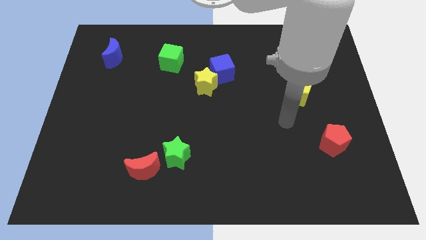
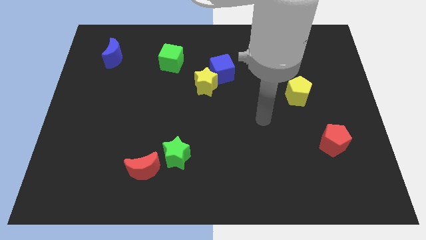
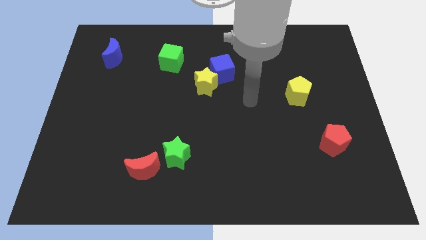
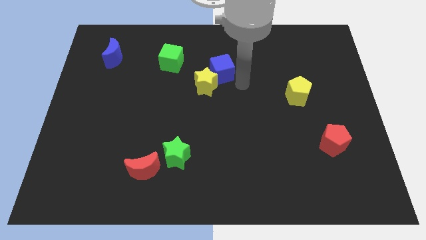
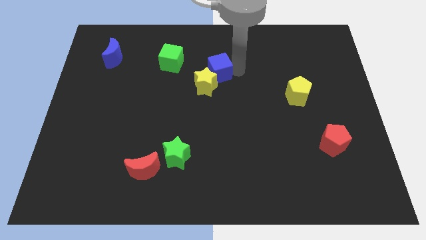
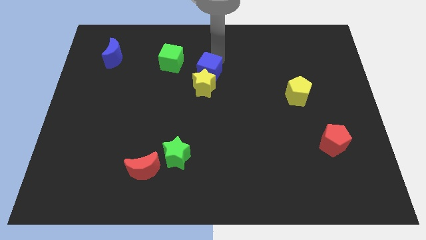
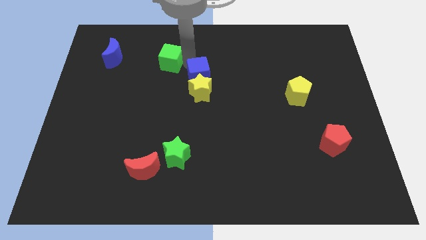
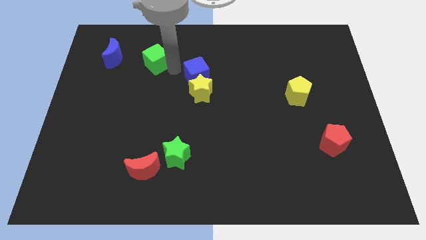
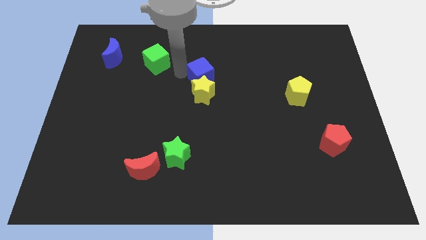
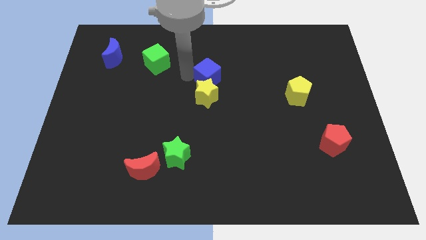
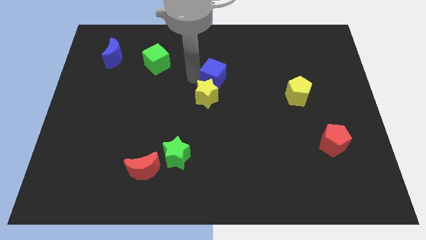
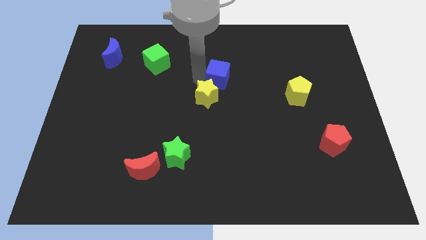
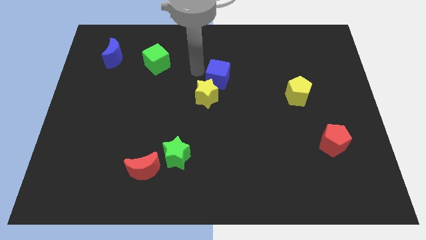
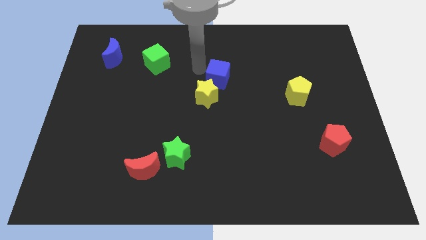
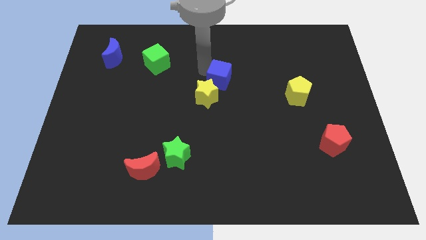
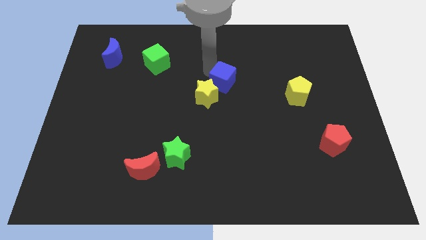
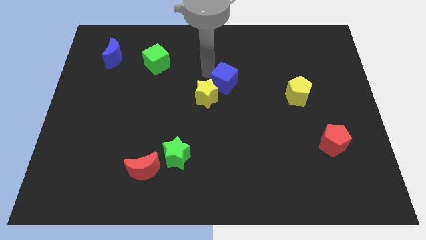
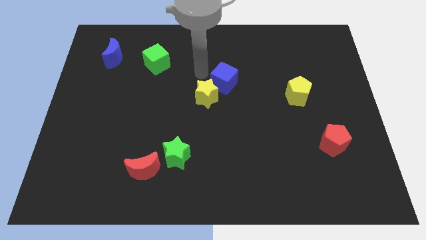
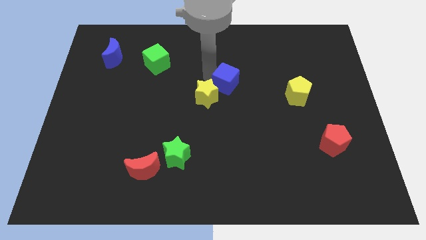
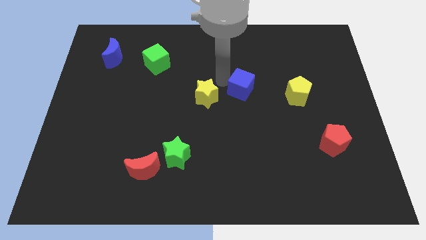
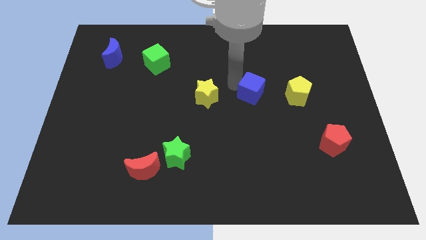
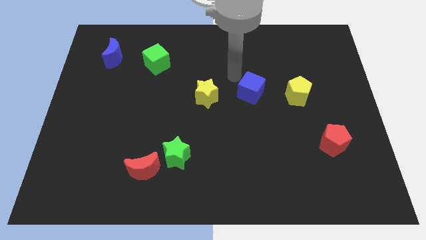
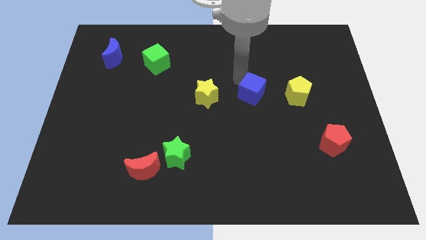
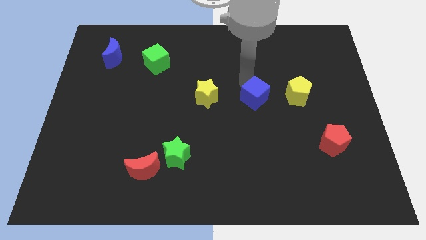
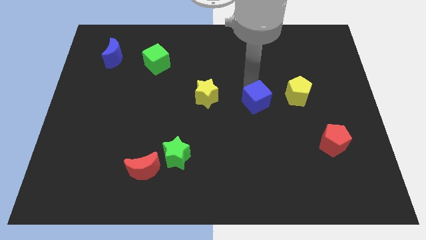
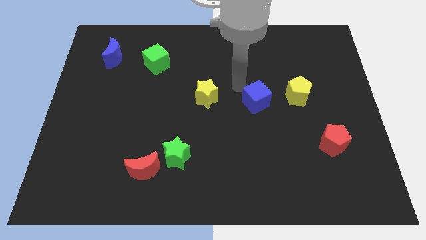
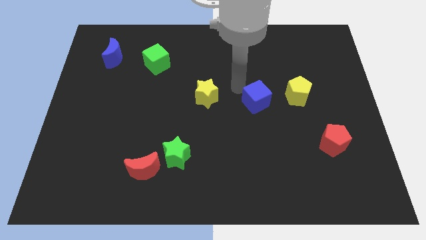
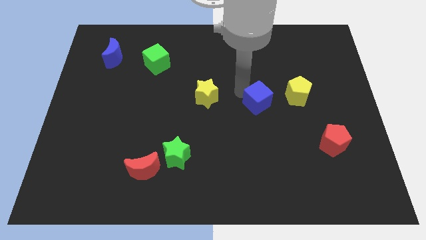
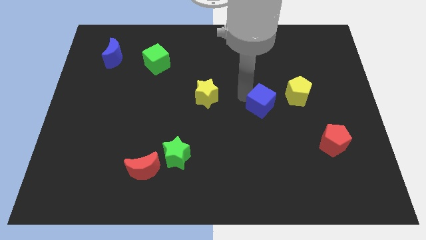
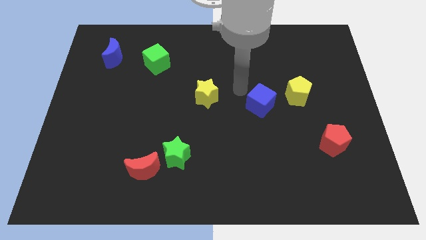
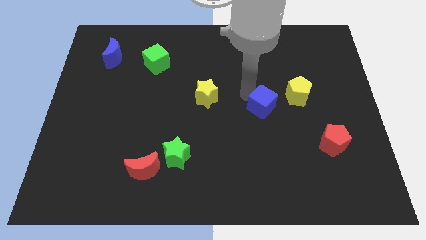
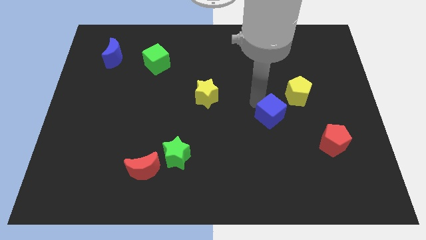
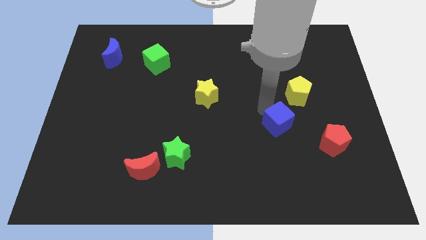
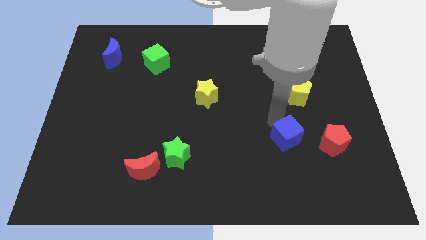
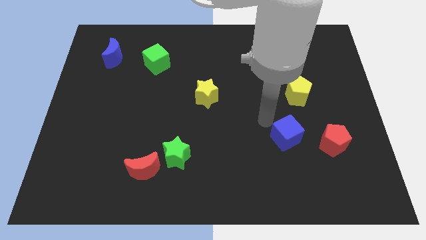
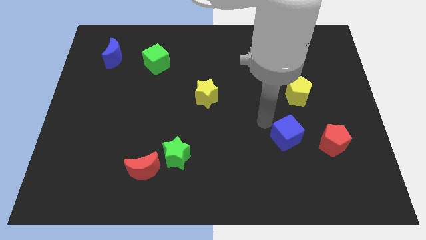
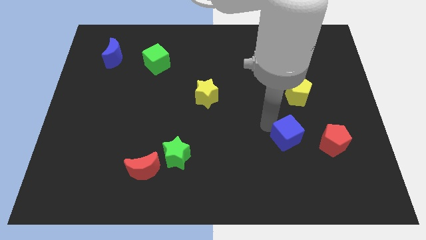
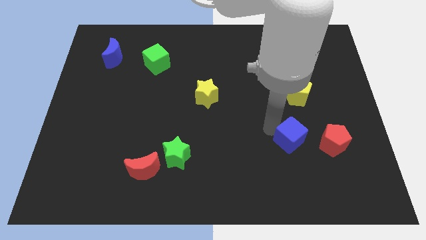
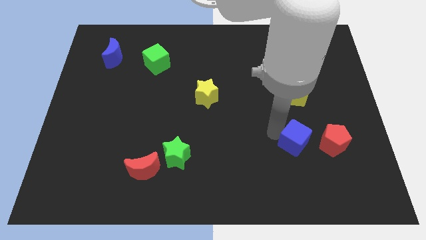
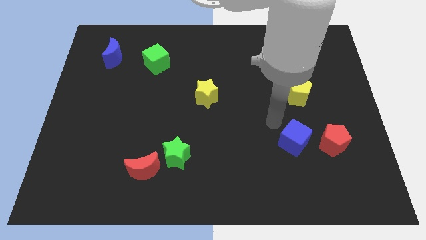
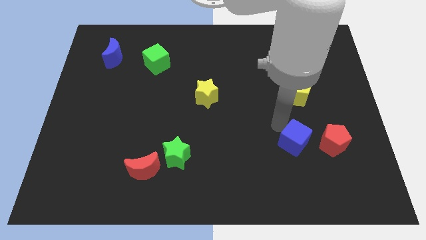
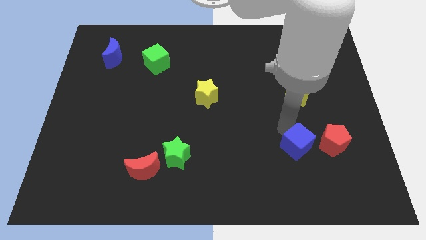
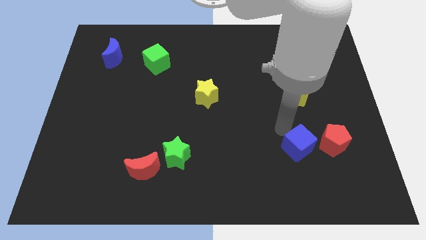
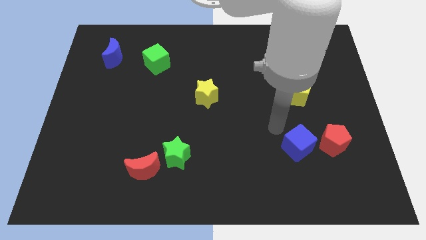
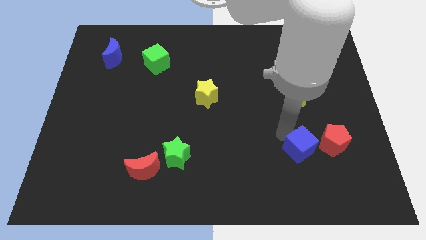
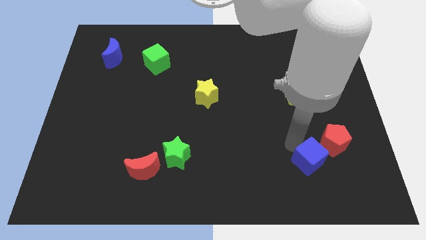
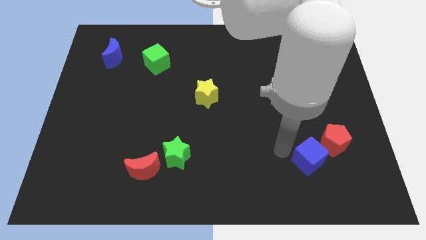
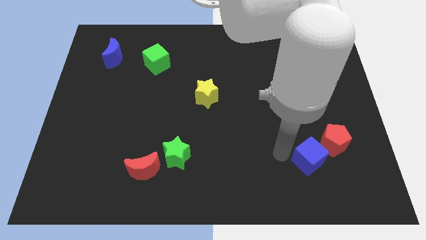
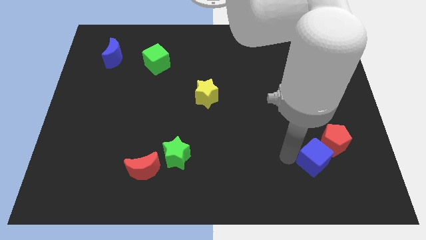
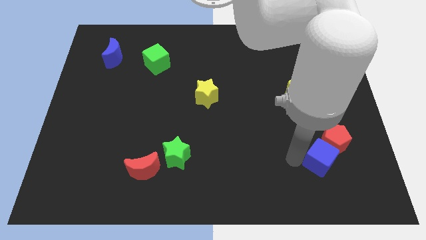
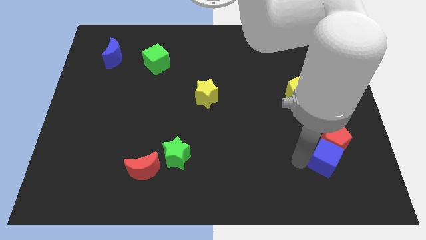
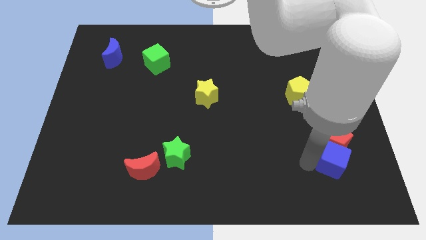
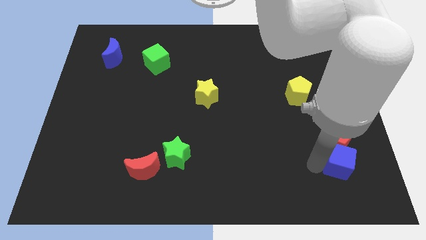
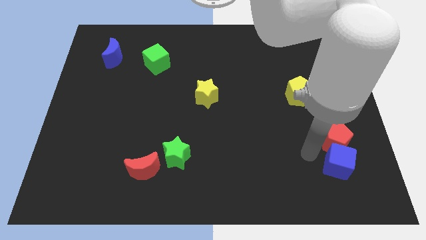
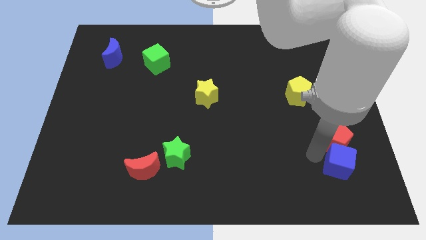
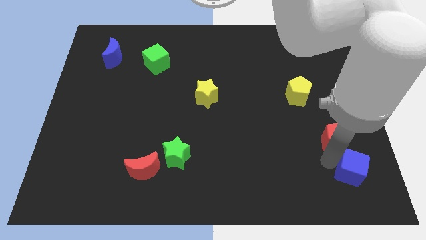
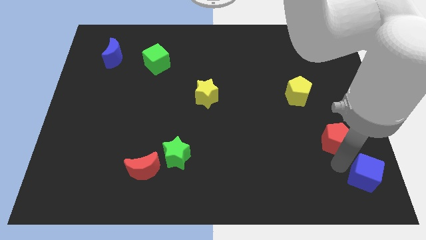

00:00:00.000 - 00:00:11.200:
put the blue cube to the lower right corner

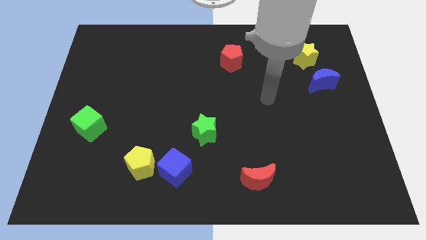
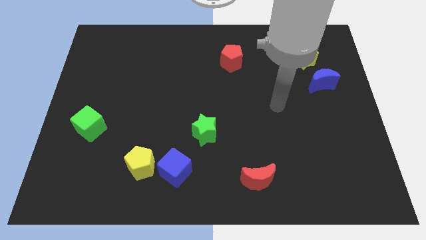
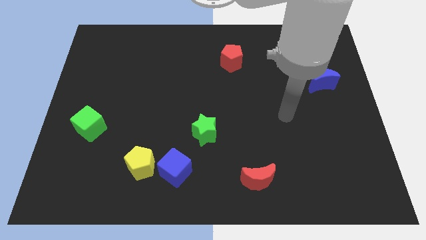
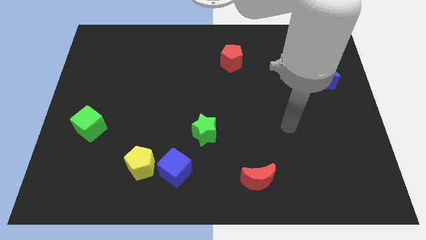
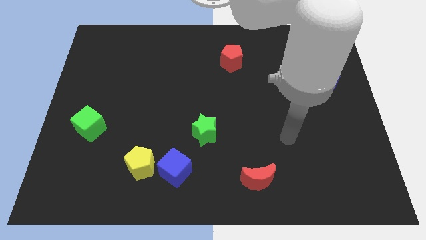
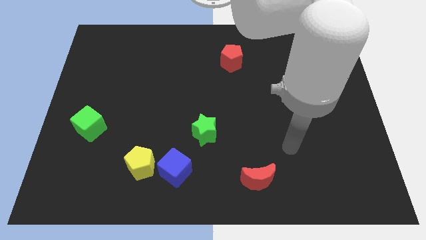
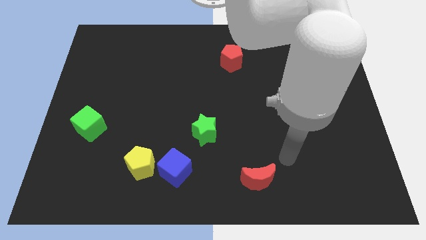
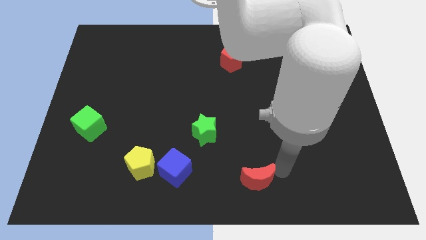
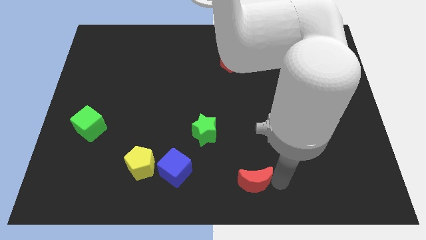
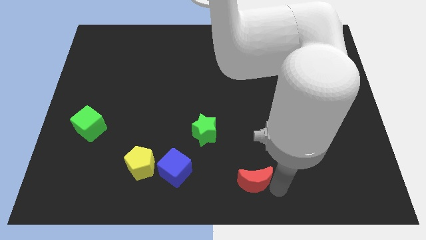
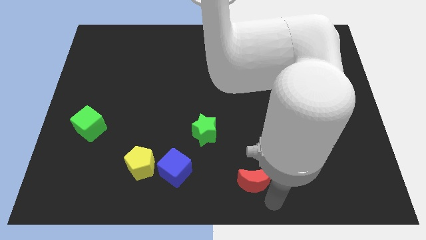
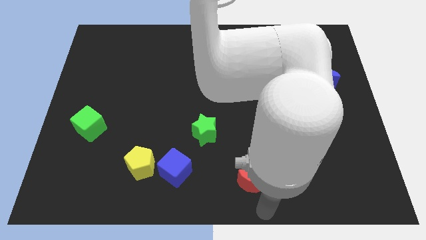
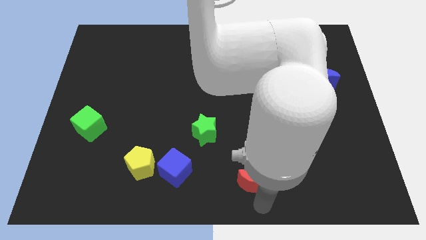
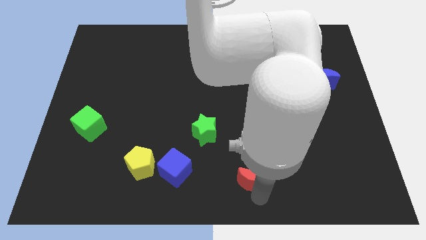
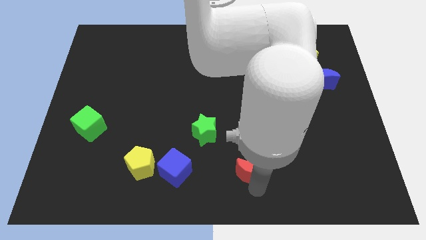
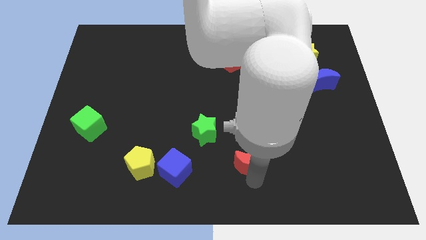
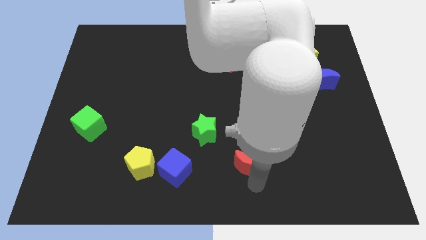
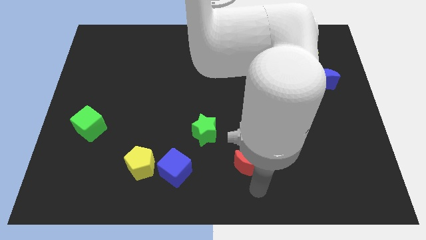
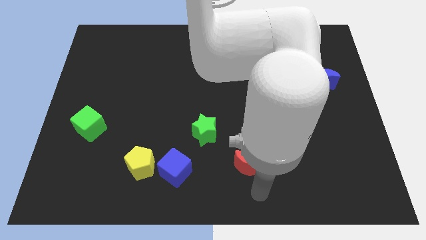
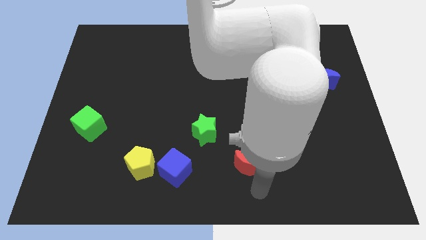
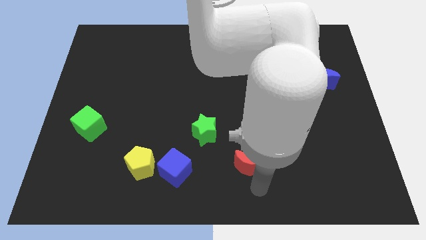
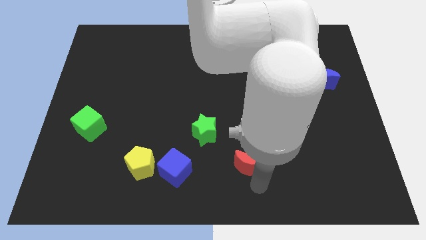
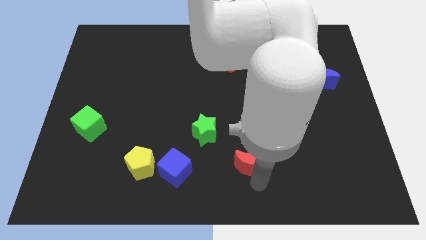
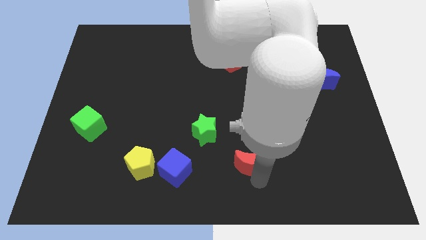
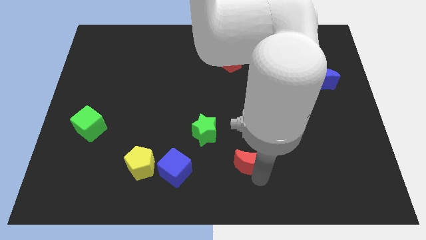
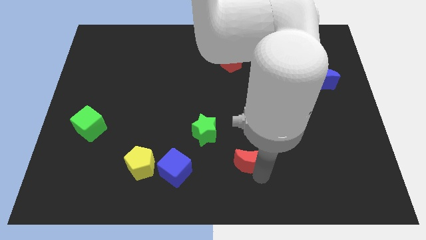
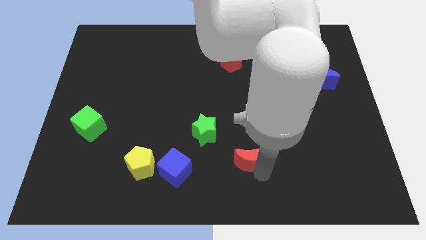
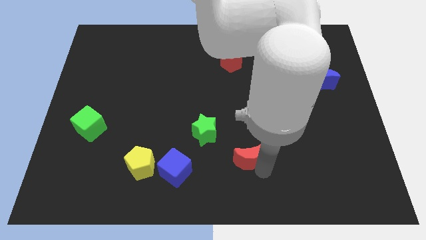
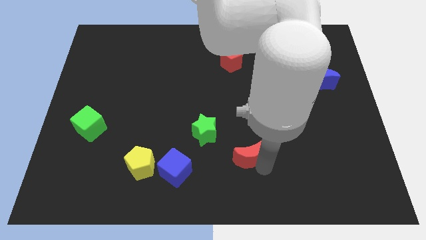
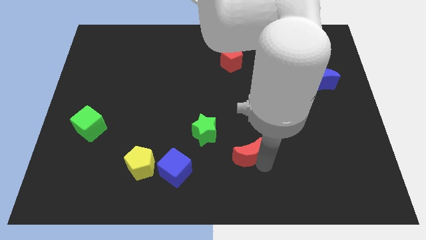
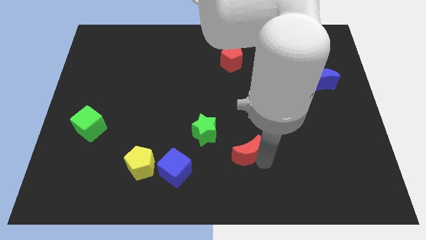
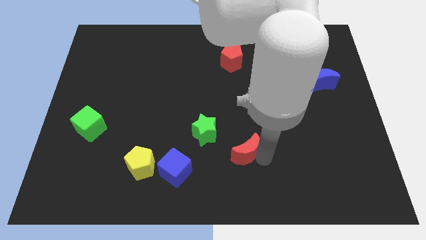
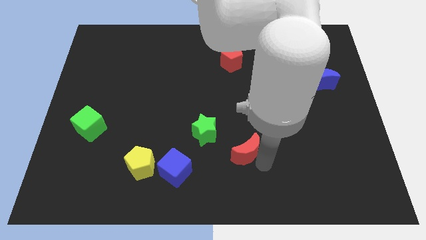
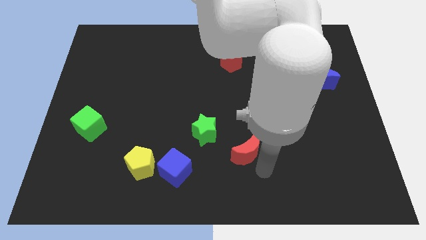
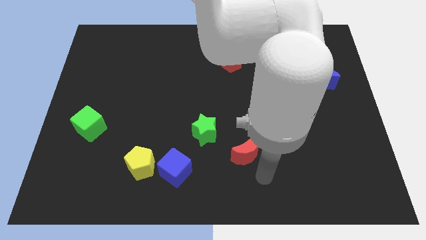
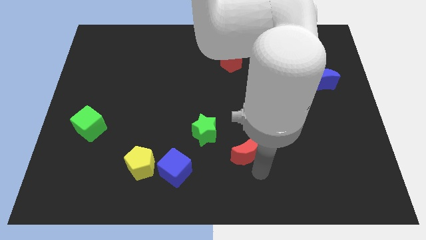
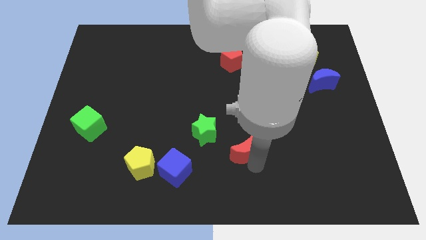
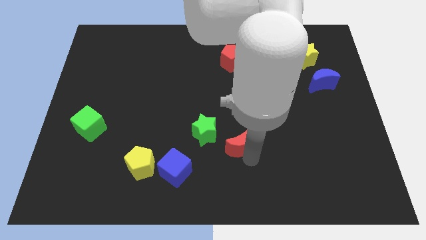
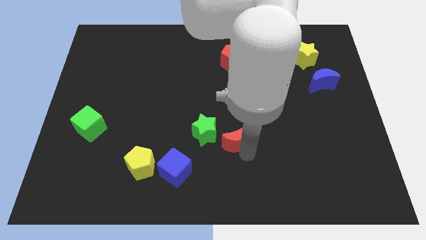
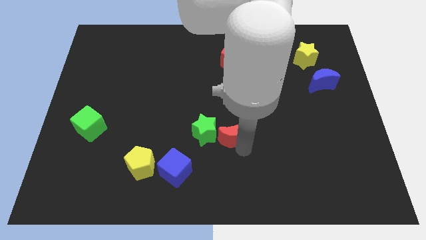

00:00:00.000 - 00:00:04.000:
push the red moon to the middle of the board
